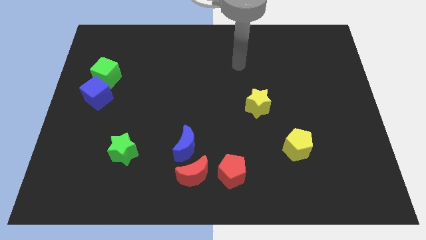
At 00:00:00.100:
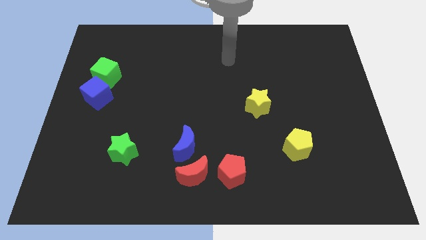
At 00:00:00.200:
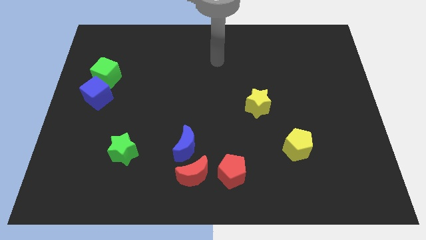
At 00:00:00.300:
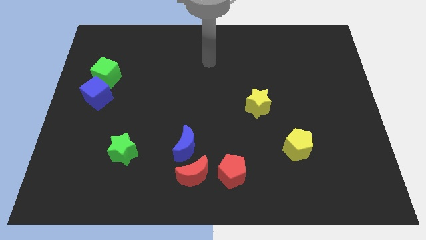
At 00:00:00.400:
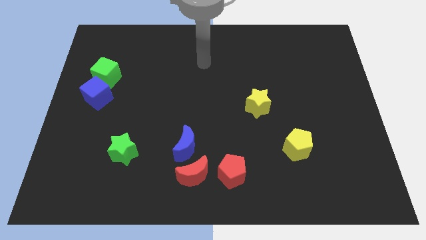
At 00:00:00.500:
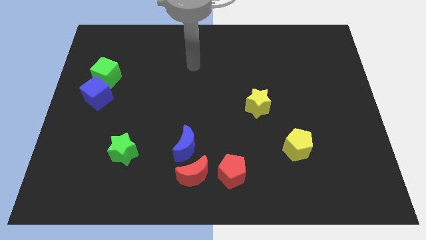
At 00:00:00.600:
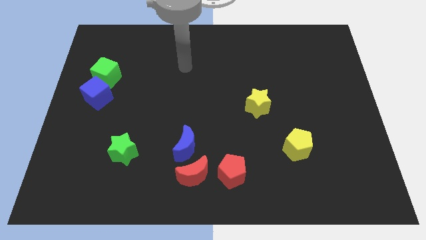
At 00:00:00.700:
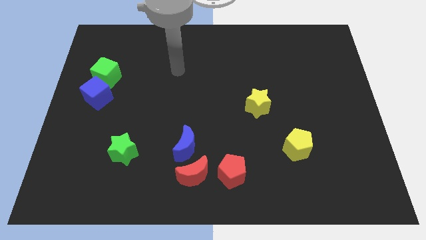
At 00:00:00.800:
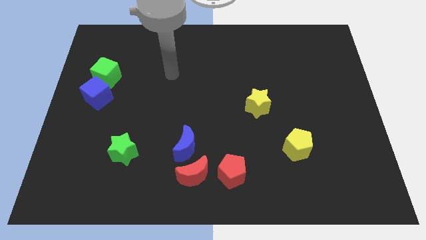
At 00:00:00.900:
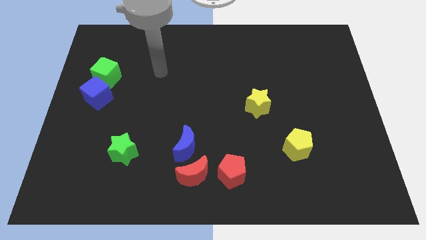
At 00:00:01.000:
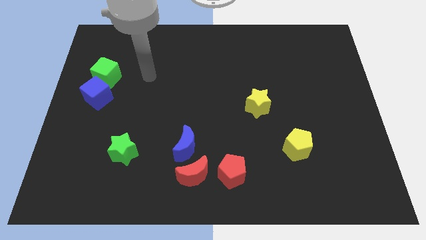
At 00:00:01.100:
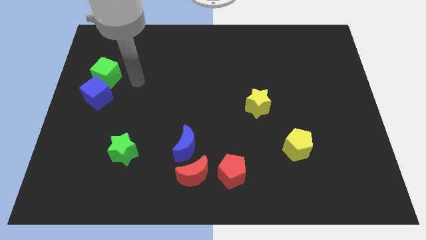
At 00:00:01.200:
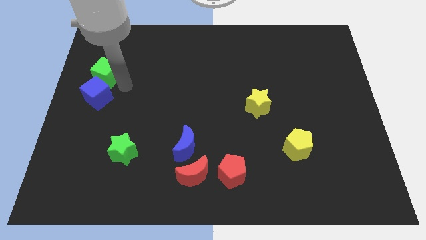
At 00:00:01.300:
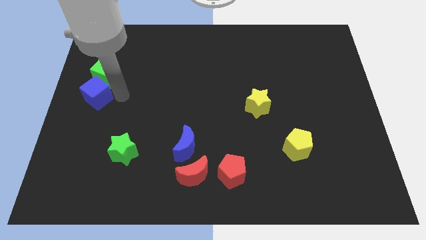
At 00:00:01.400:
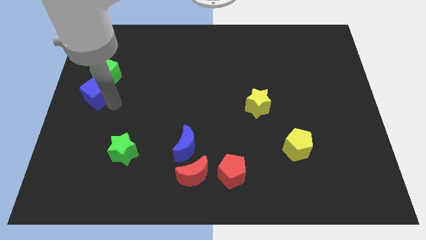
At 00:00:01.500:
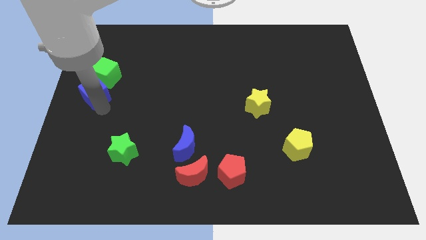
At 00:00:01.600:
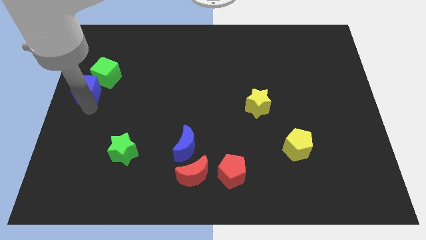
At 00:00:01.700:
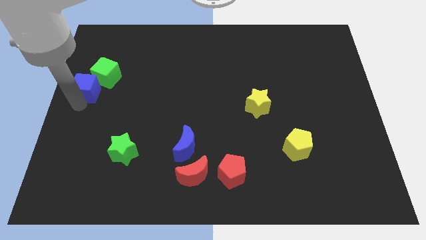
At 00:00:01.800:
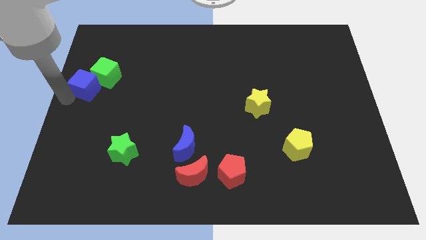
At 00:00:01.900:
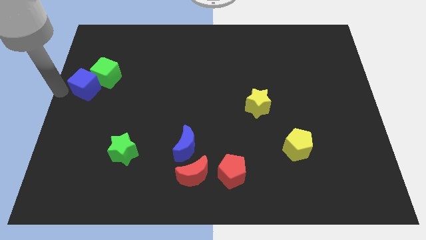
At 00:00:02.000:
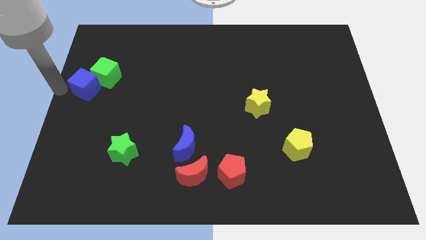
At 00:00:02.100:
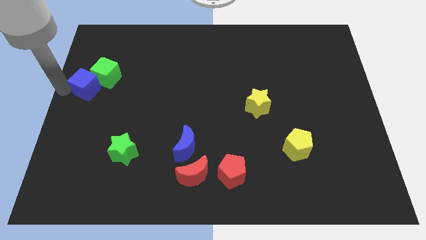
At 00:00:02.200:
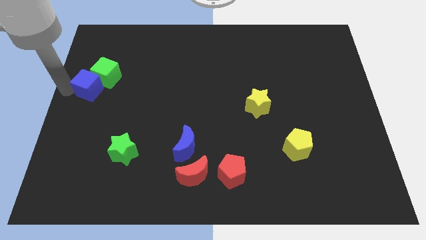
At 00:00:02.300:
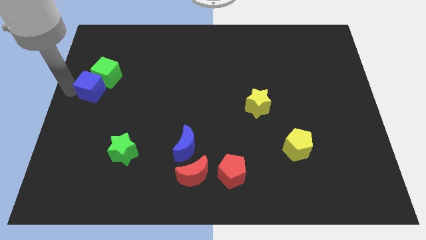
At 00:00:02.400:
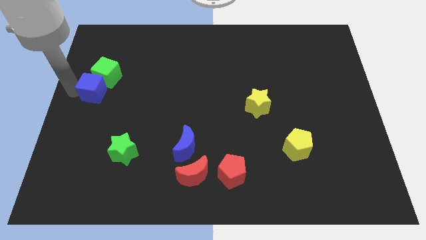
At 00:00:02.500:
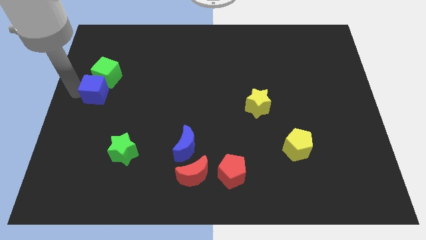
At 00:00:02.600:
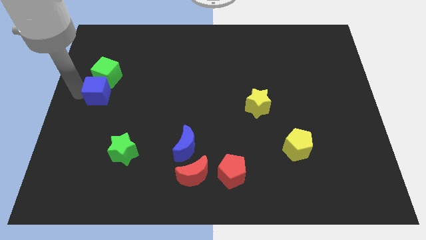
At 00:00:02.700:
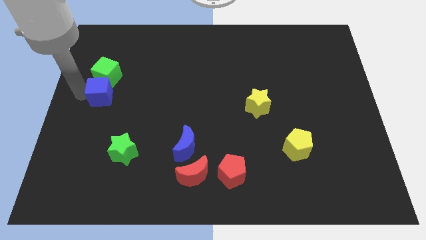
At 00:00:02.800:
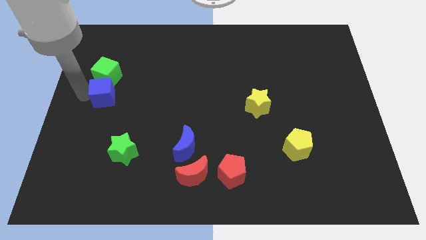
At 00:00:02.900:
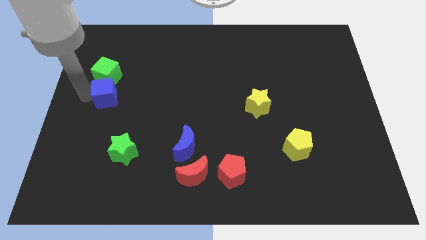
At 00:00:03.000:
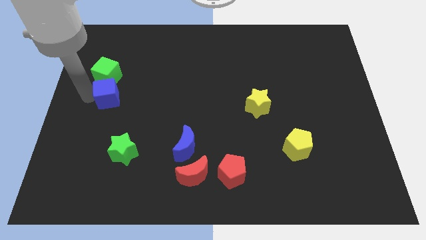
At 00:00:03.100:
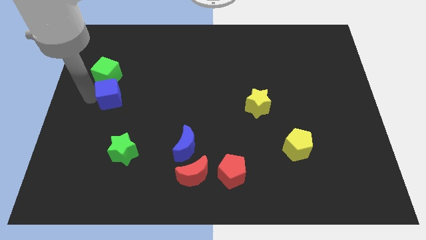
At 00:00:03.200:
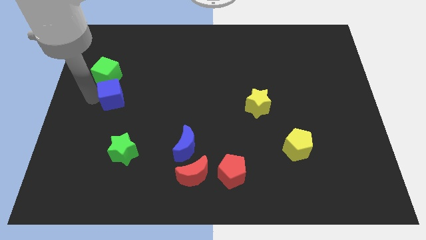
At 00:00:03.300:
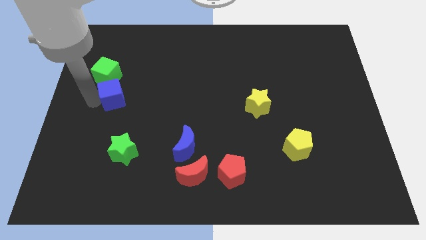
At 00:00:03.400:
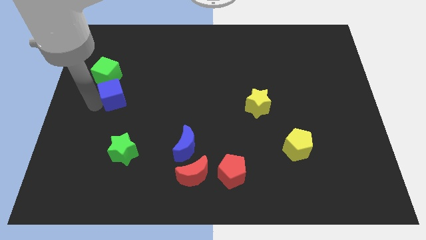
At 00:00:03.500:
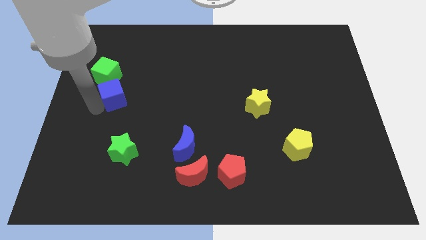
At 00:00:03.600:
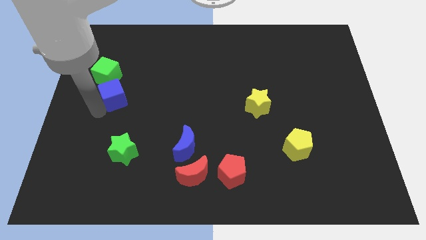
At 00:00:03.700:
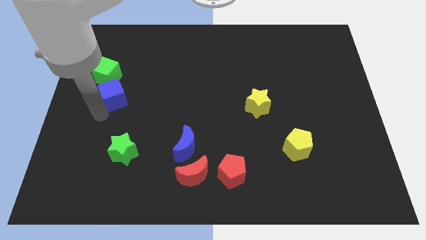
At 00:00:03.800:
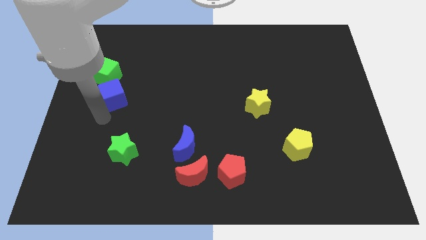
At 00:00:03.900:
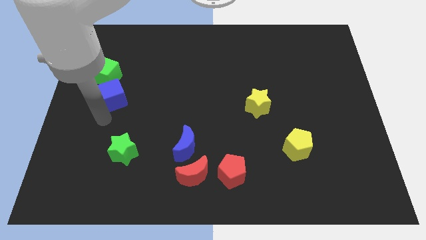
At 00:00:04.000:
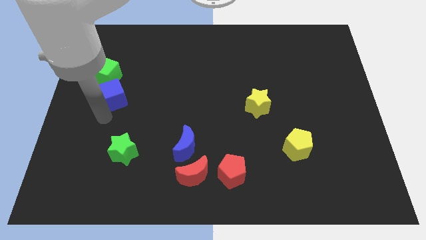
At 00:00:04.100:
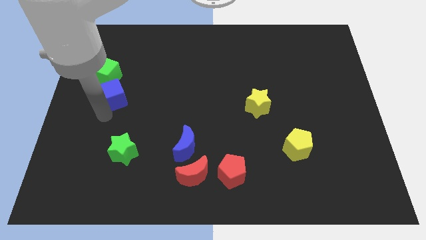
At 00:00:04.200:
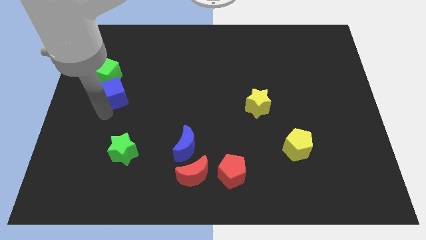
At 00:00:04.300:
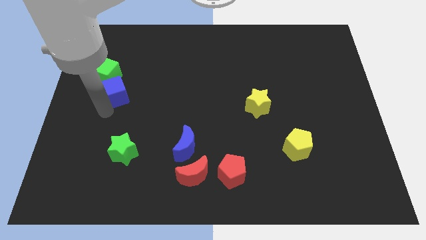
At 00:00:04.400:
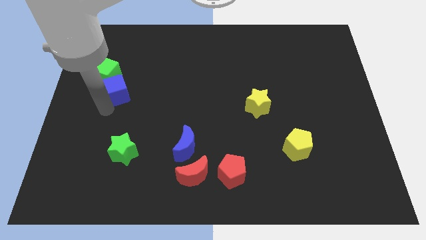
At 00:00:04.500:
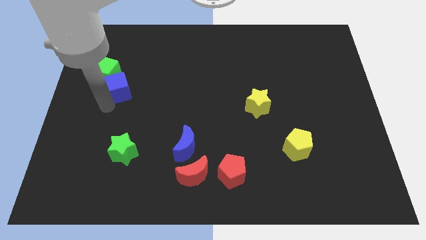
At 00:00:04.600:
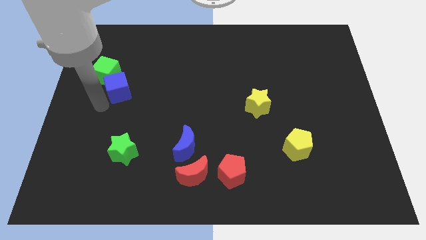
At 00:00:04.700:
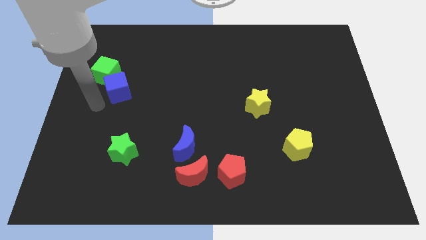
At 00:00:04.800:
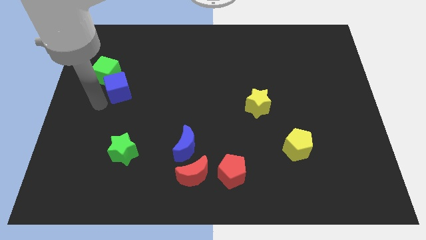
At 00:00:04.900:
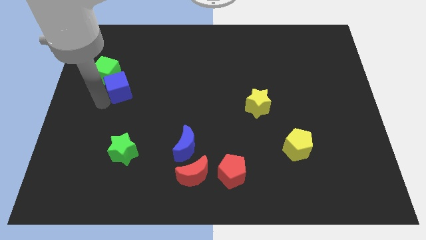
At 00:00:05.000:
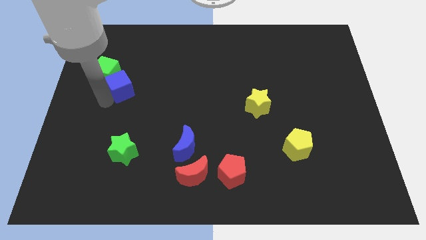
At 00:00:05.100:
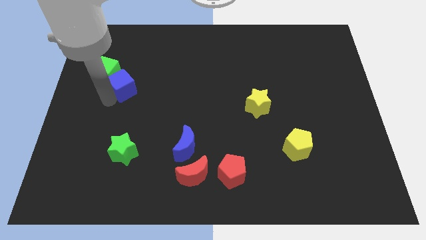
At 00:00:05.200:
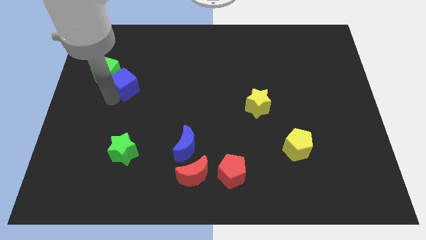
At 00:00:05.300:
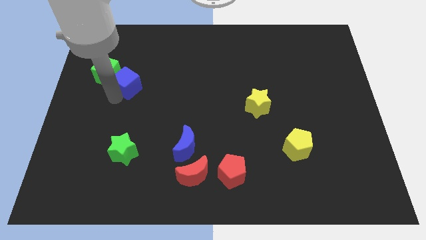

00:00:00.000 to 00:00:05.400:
move the blue cube a bit diagonally upwards and right

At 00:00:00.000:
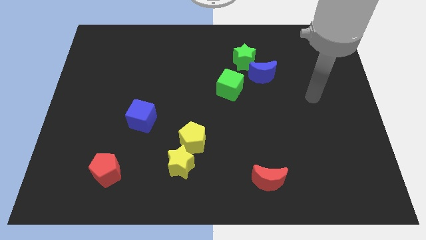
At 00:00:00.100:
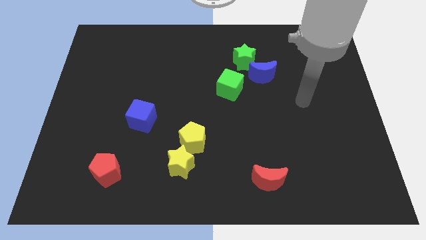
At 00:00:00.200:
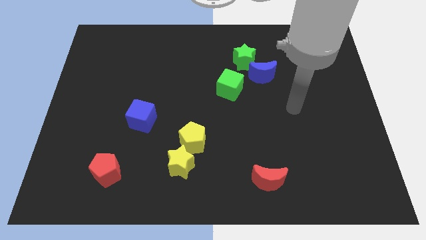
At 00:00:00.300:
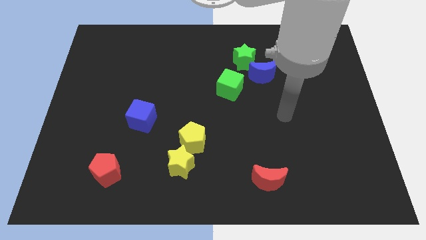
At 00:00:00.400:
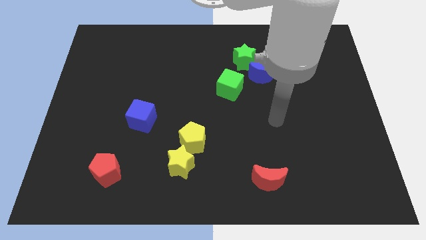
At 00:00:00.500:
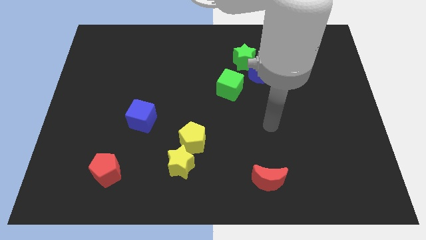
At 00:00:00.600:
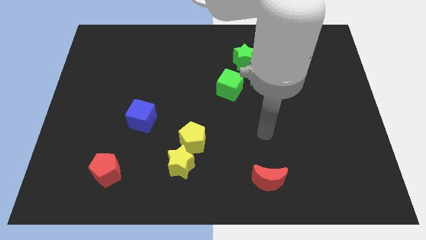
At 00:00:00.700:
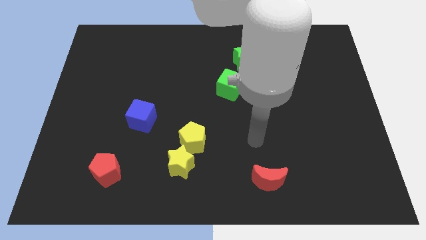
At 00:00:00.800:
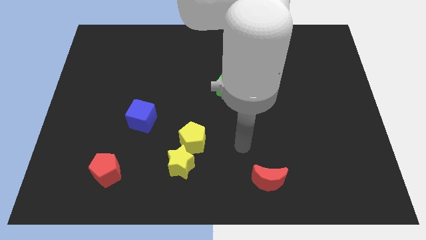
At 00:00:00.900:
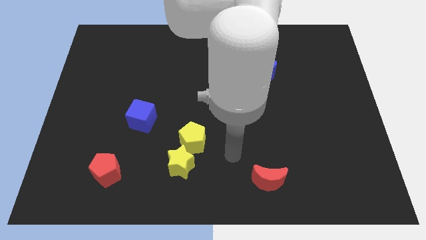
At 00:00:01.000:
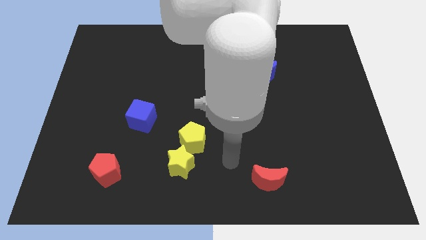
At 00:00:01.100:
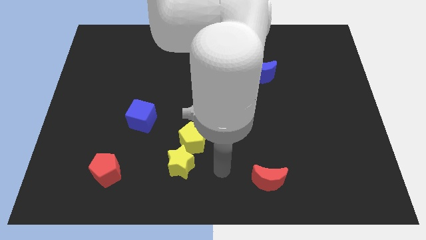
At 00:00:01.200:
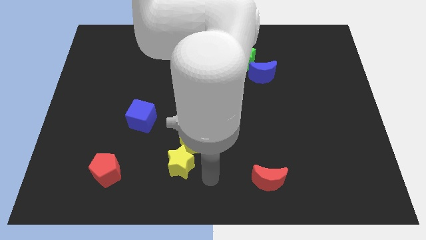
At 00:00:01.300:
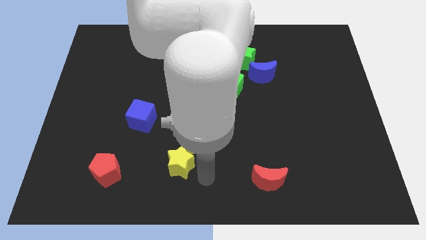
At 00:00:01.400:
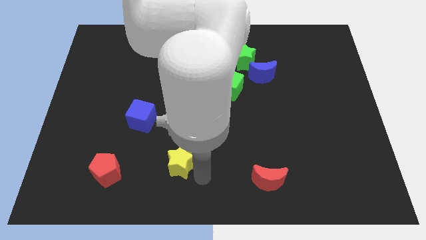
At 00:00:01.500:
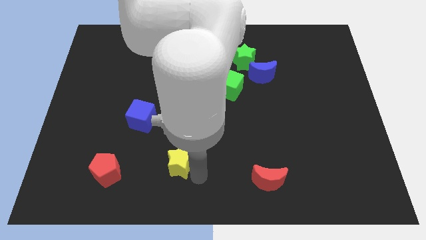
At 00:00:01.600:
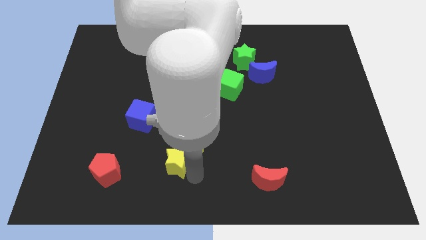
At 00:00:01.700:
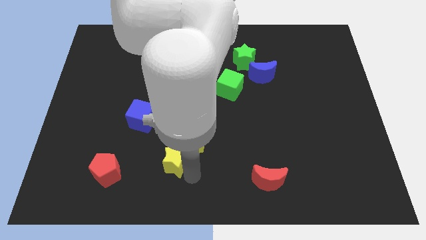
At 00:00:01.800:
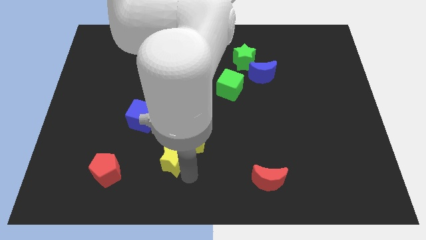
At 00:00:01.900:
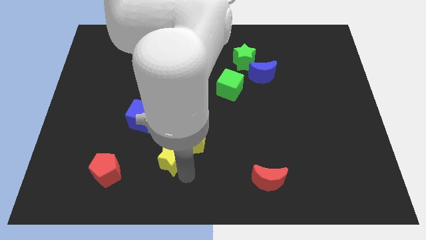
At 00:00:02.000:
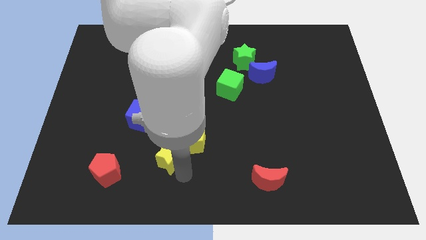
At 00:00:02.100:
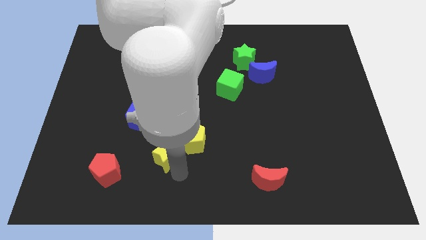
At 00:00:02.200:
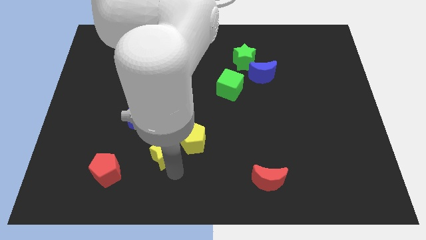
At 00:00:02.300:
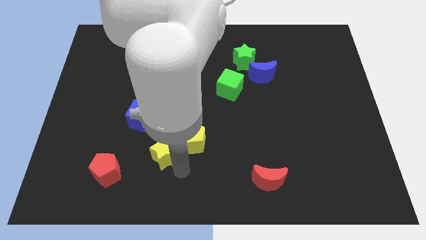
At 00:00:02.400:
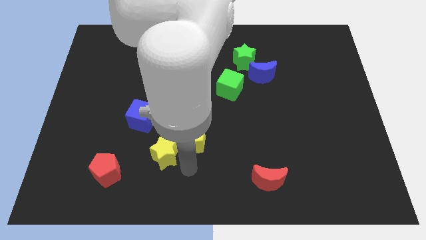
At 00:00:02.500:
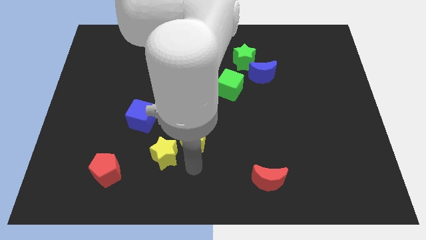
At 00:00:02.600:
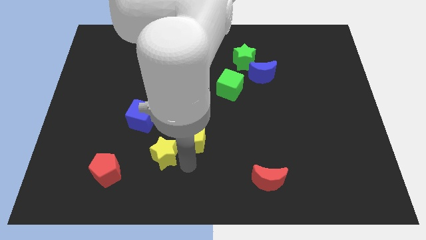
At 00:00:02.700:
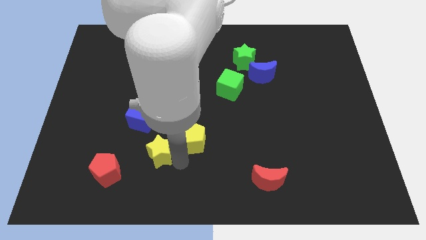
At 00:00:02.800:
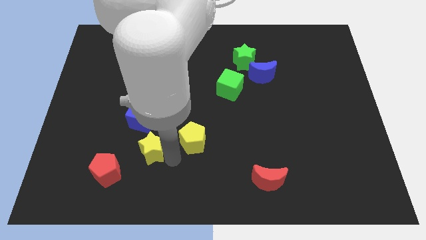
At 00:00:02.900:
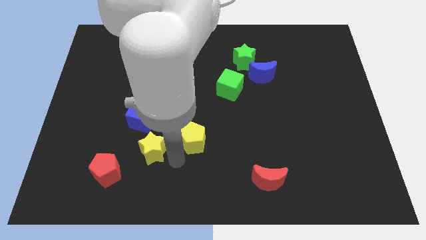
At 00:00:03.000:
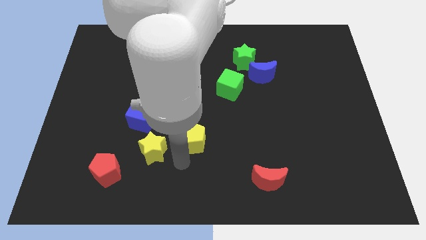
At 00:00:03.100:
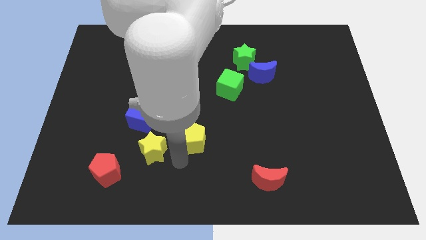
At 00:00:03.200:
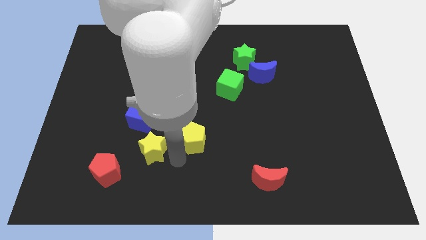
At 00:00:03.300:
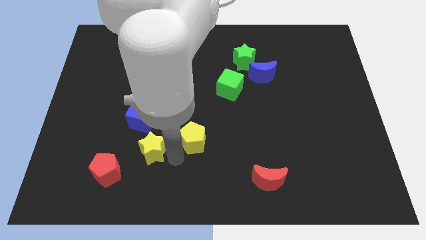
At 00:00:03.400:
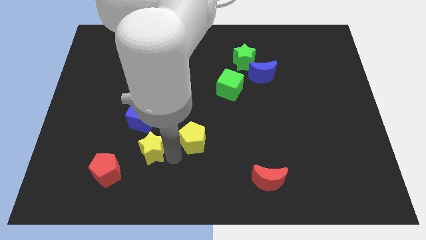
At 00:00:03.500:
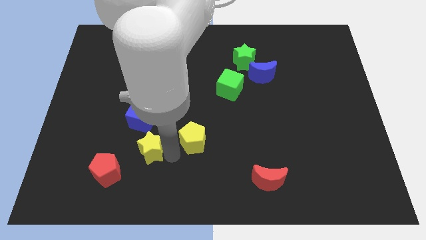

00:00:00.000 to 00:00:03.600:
slide the yellow star a little bit up and left diagonally
